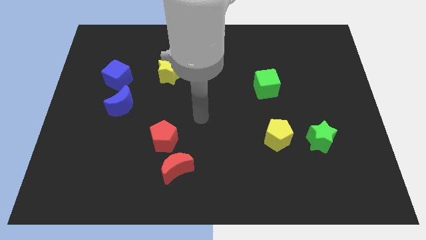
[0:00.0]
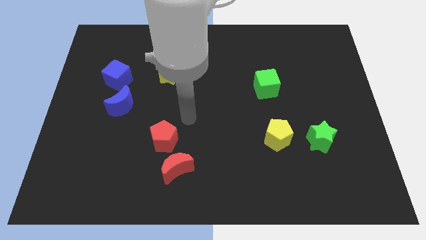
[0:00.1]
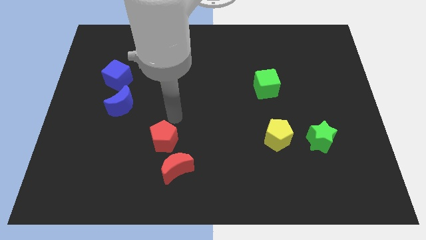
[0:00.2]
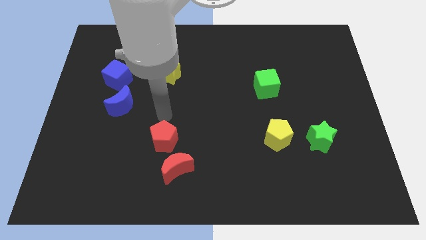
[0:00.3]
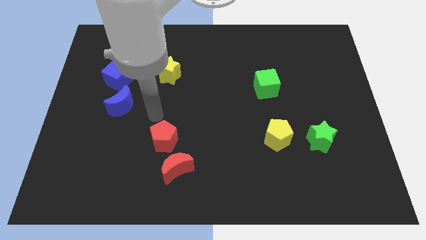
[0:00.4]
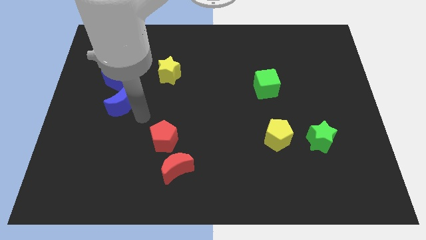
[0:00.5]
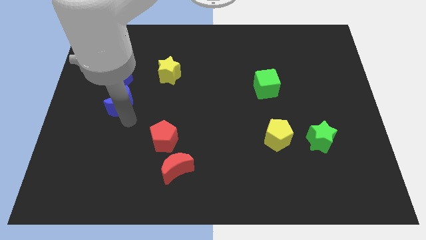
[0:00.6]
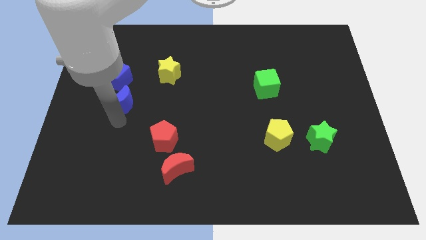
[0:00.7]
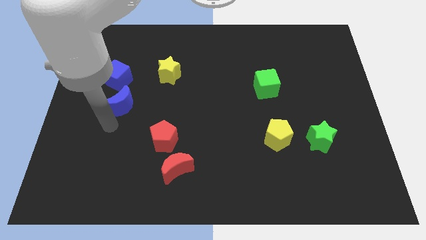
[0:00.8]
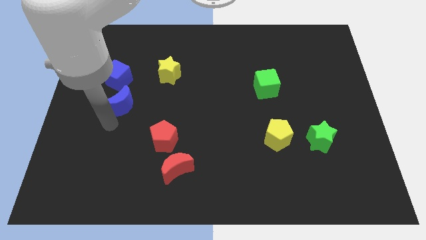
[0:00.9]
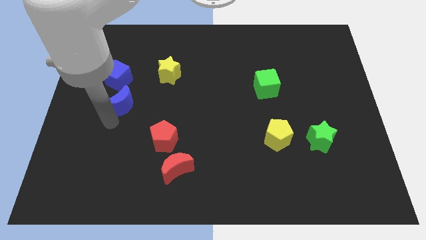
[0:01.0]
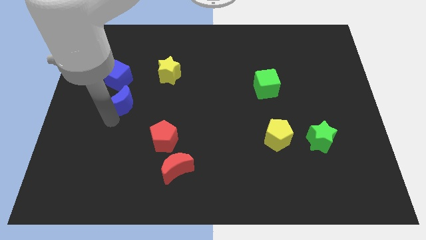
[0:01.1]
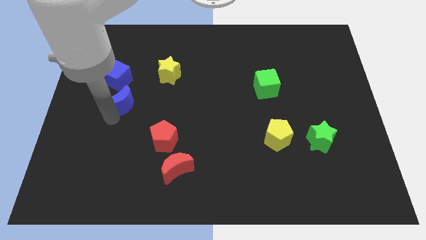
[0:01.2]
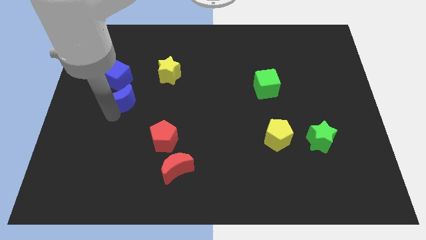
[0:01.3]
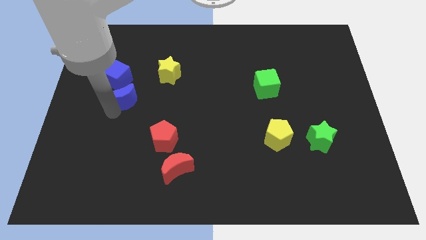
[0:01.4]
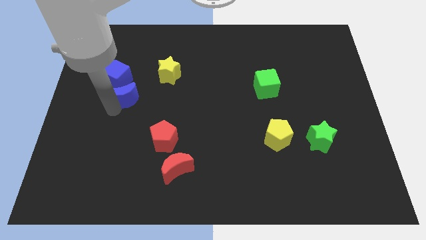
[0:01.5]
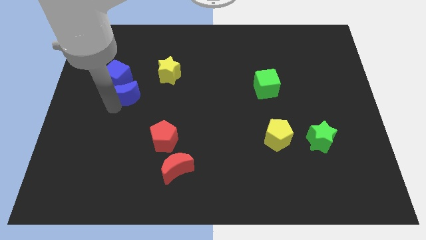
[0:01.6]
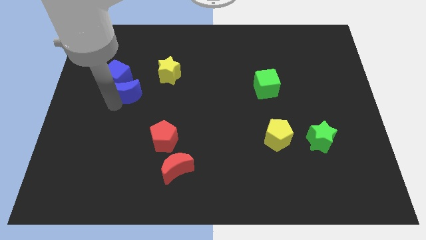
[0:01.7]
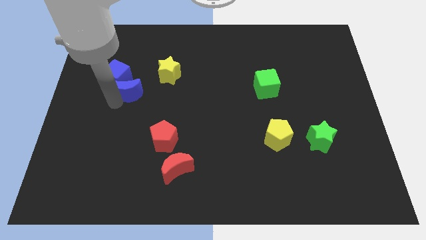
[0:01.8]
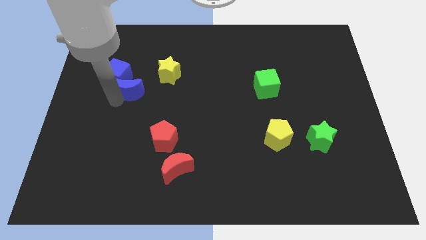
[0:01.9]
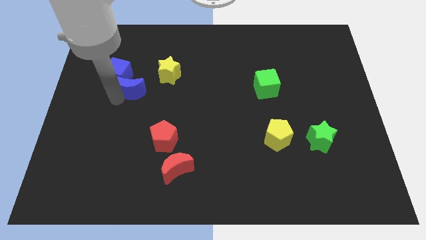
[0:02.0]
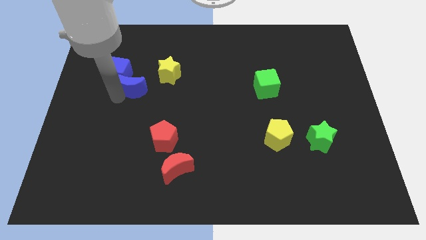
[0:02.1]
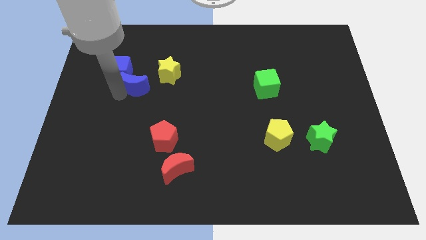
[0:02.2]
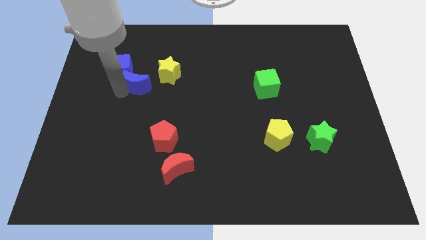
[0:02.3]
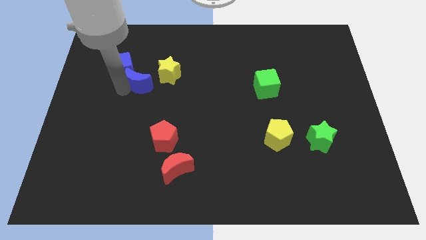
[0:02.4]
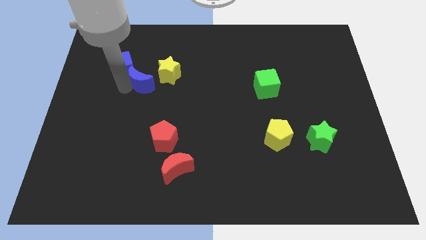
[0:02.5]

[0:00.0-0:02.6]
push the blue moon somewhat up and right diagonally

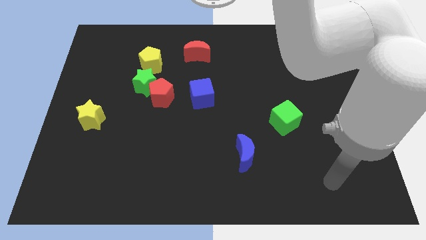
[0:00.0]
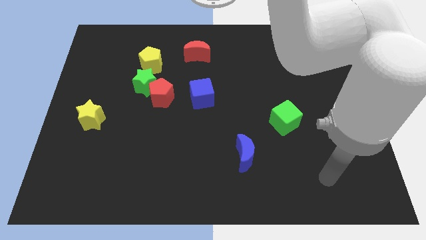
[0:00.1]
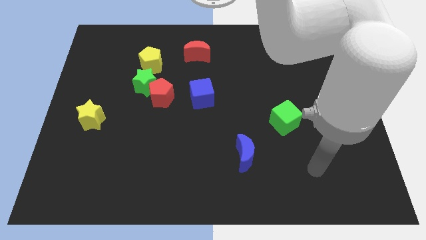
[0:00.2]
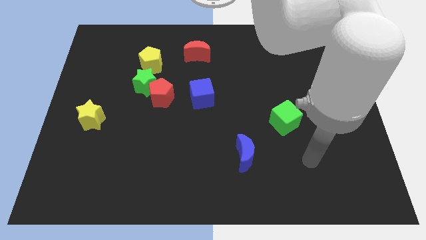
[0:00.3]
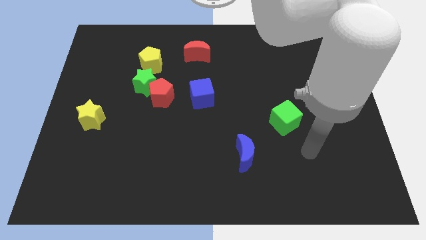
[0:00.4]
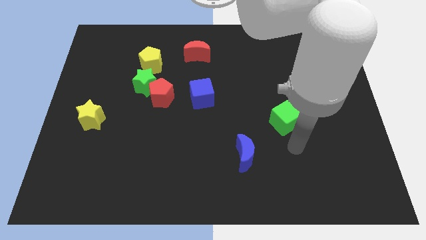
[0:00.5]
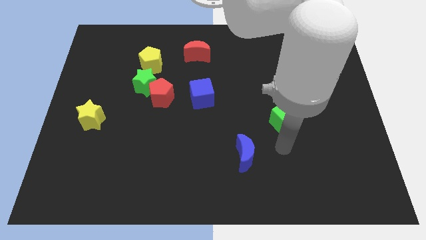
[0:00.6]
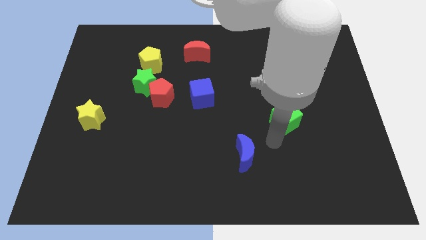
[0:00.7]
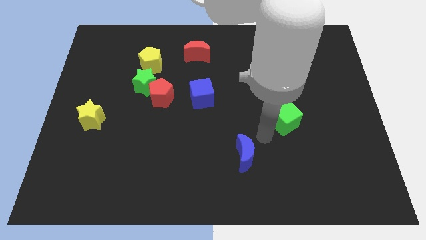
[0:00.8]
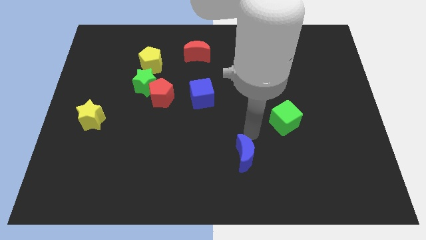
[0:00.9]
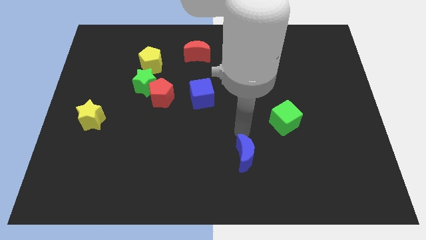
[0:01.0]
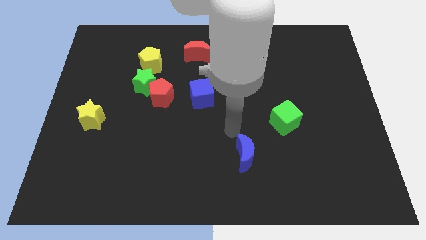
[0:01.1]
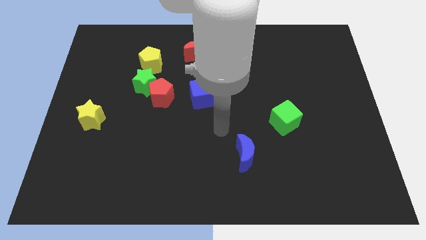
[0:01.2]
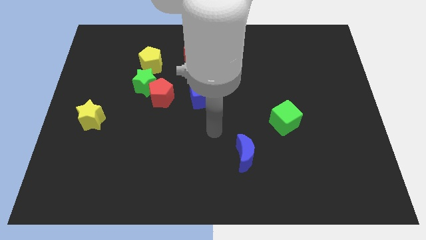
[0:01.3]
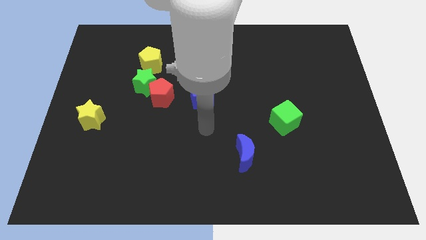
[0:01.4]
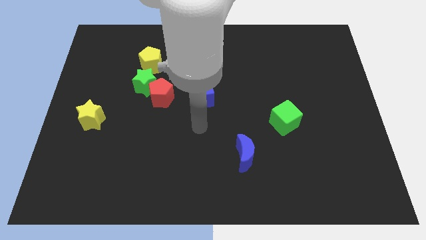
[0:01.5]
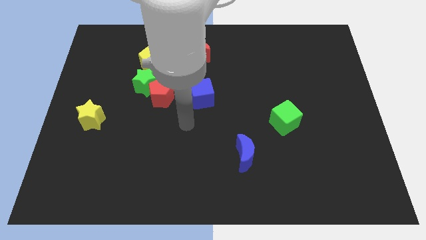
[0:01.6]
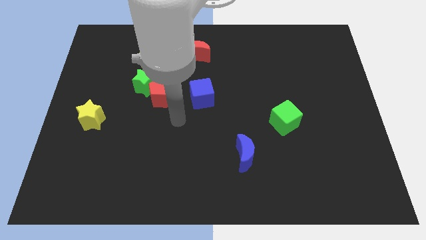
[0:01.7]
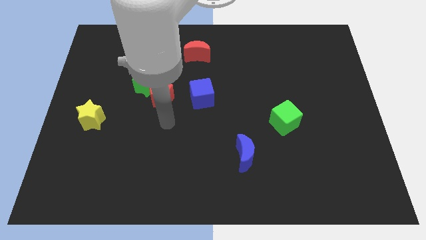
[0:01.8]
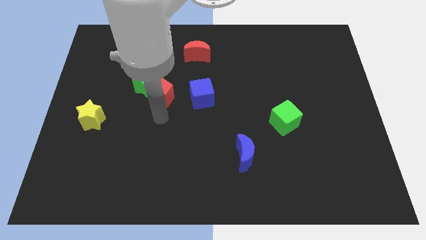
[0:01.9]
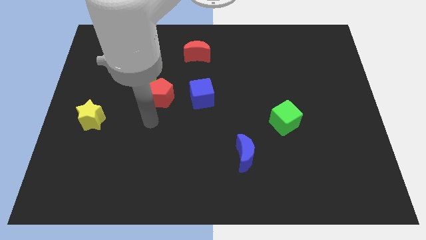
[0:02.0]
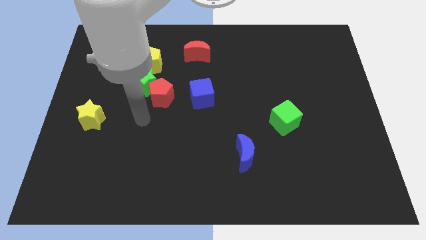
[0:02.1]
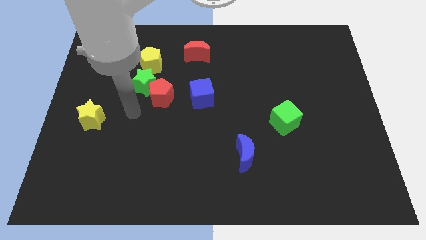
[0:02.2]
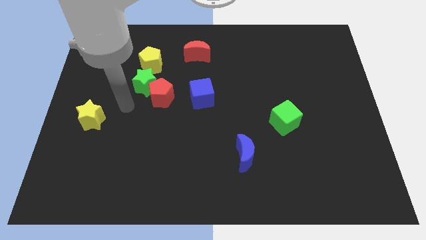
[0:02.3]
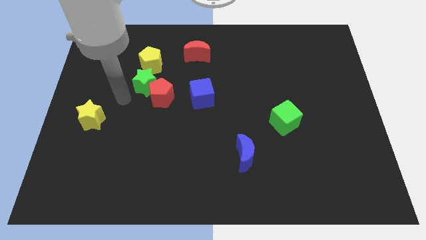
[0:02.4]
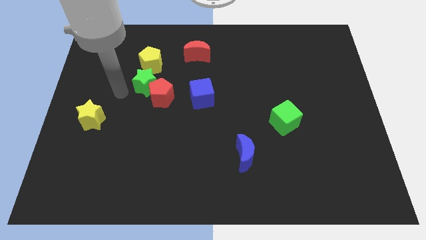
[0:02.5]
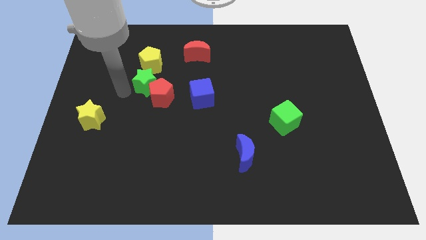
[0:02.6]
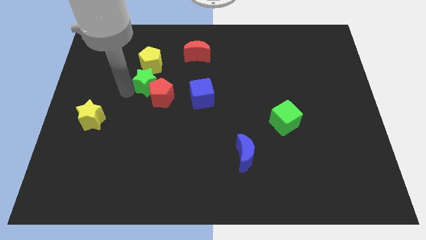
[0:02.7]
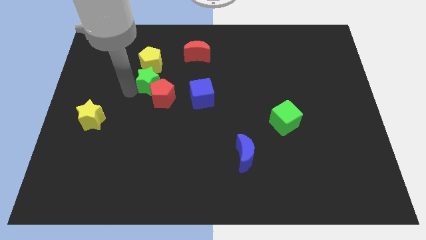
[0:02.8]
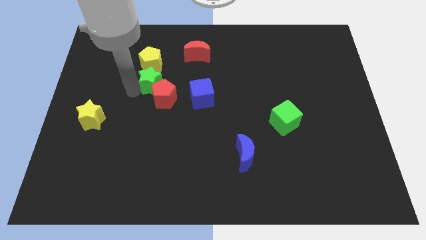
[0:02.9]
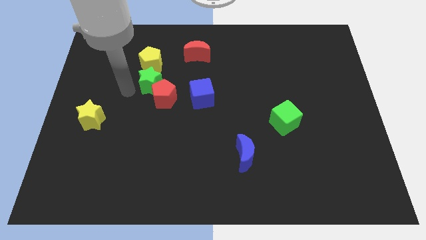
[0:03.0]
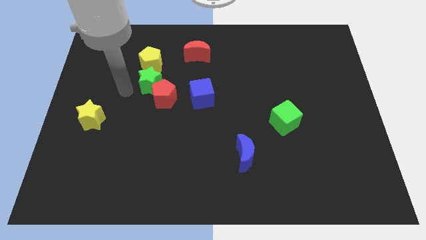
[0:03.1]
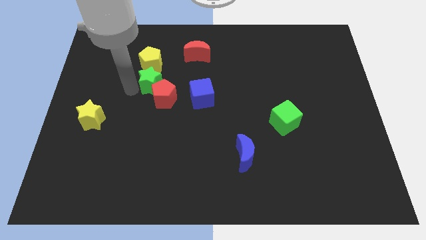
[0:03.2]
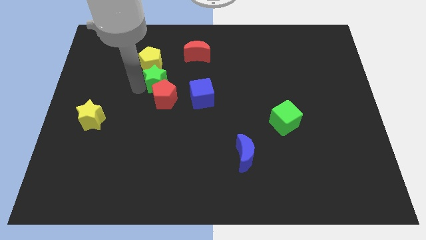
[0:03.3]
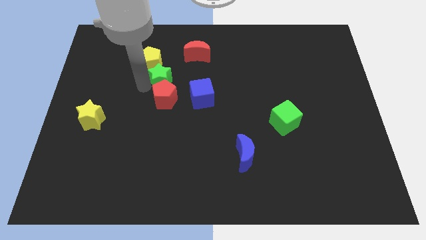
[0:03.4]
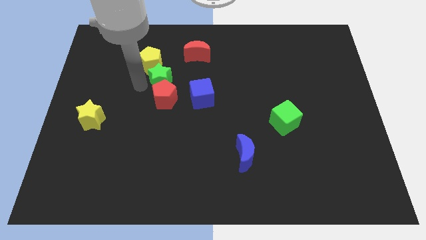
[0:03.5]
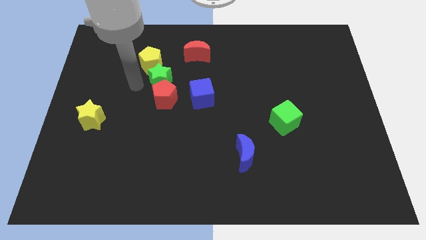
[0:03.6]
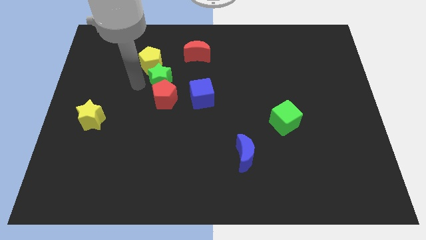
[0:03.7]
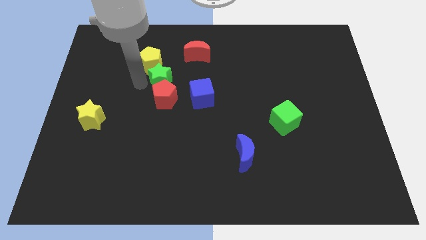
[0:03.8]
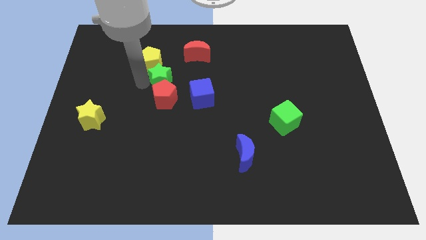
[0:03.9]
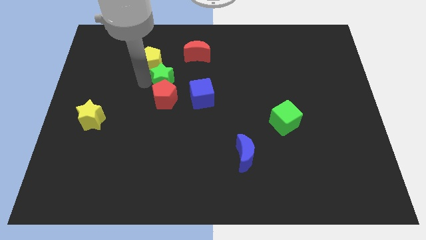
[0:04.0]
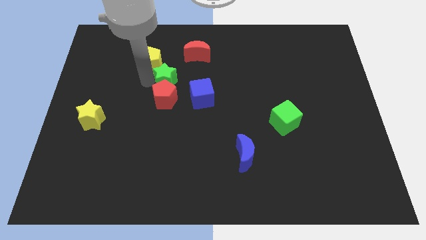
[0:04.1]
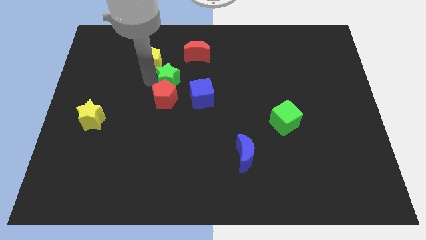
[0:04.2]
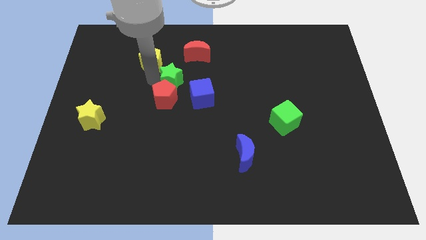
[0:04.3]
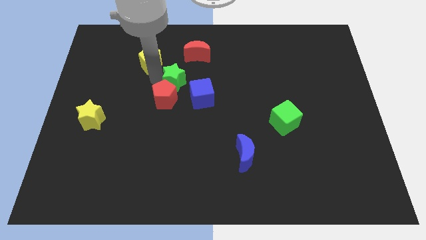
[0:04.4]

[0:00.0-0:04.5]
move the green star to the right a little bit

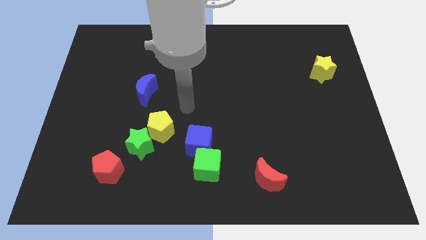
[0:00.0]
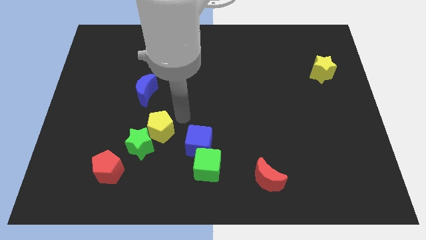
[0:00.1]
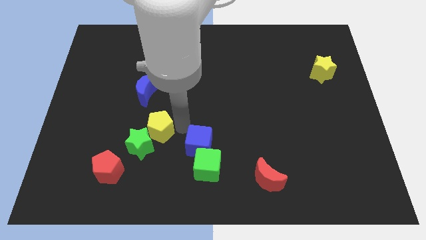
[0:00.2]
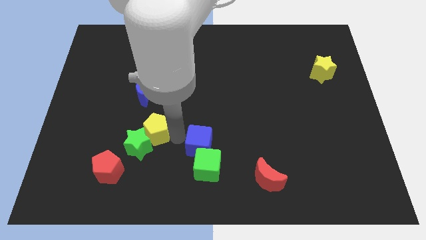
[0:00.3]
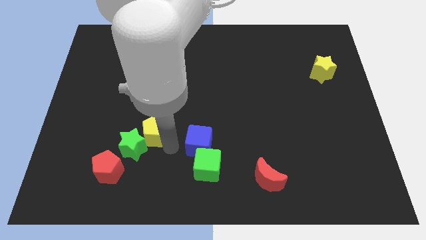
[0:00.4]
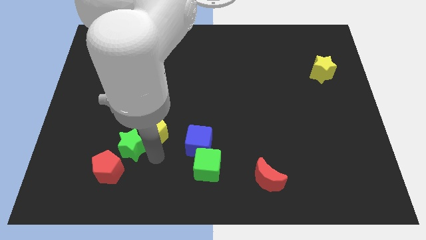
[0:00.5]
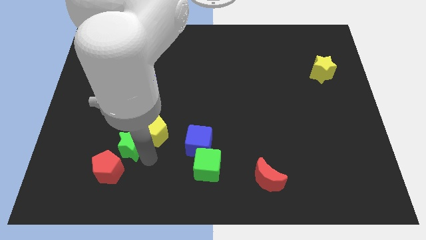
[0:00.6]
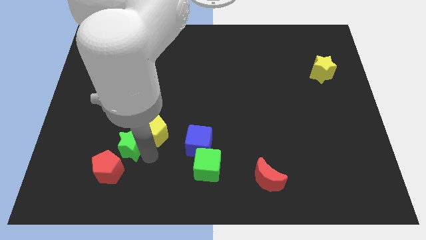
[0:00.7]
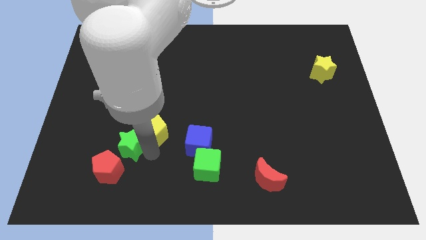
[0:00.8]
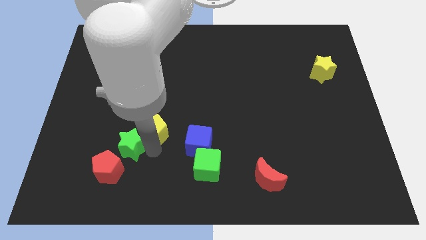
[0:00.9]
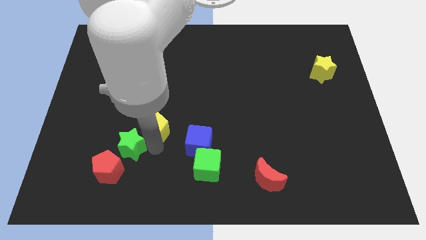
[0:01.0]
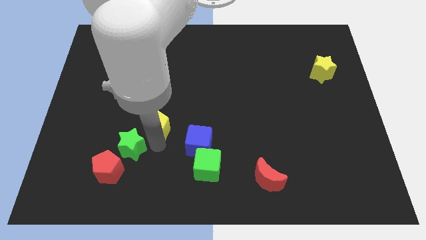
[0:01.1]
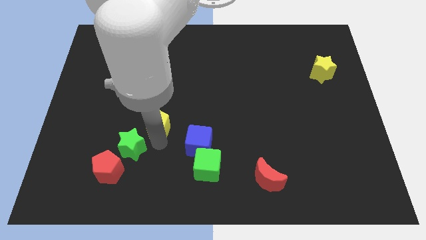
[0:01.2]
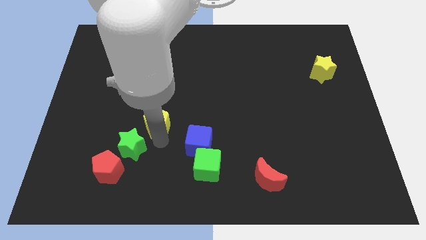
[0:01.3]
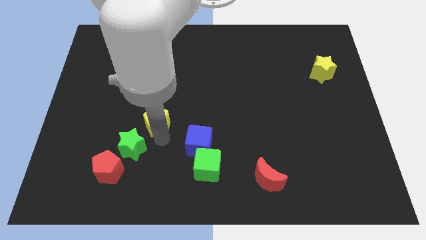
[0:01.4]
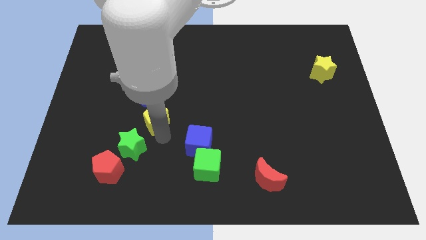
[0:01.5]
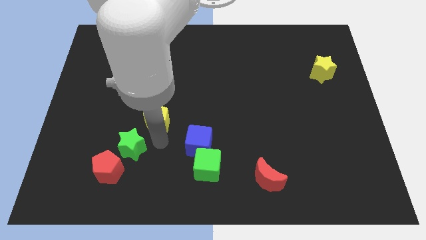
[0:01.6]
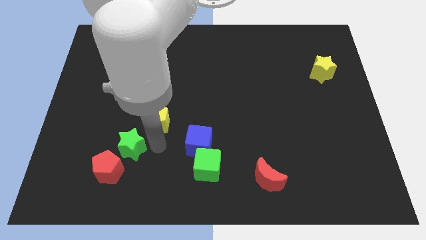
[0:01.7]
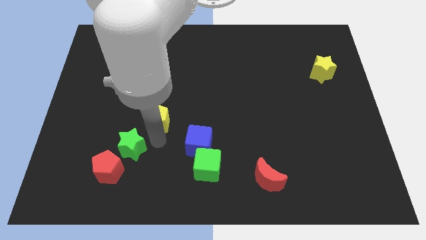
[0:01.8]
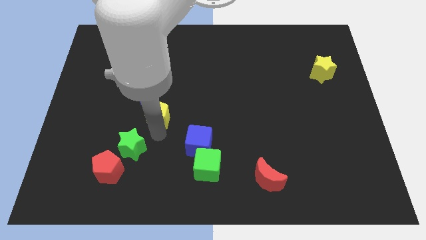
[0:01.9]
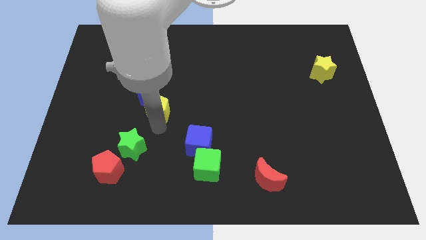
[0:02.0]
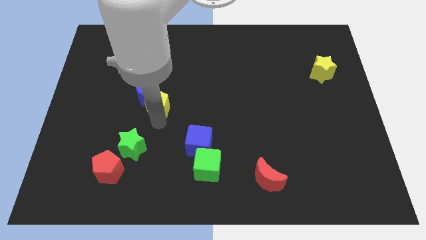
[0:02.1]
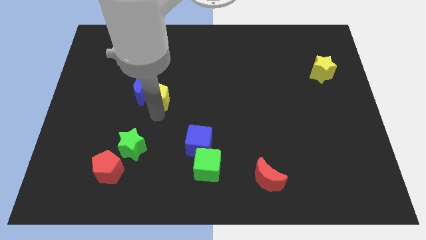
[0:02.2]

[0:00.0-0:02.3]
slide the yellow pentagon a bit up
